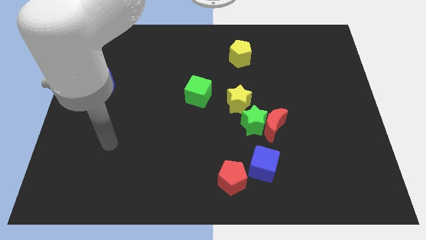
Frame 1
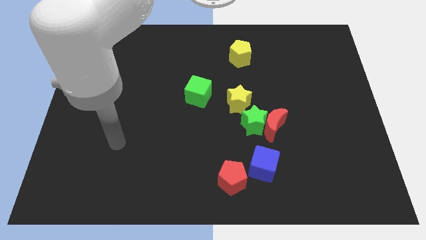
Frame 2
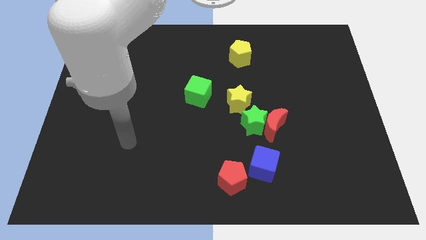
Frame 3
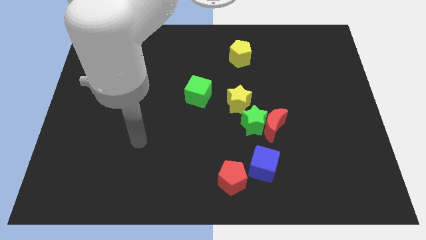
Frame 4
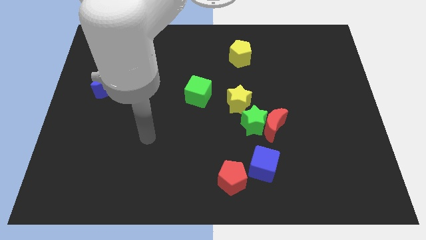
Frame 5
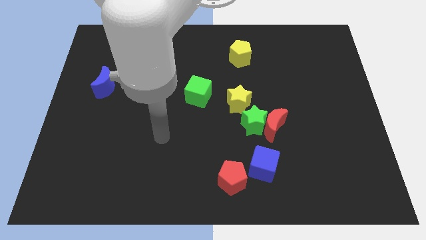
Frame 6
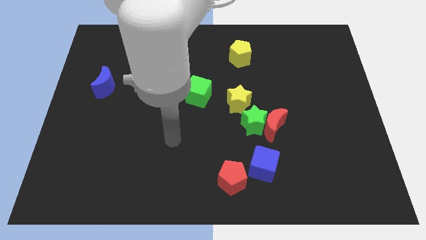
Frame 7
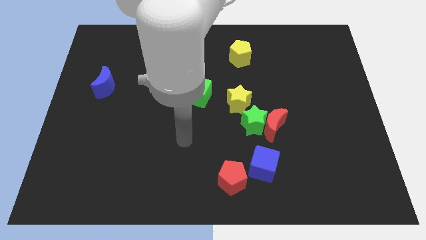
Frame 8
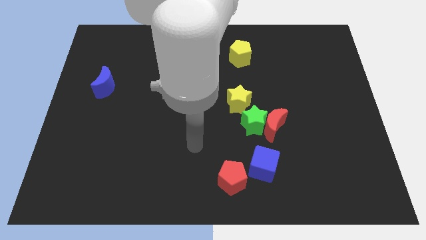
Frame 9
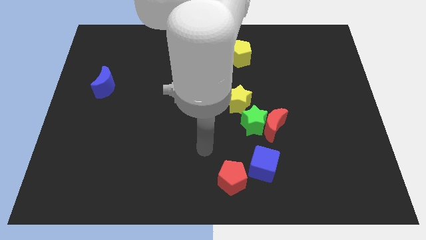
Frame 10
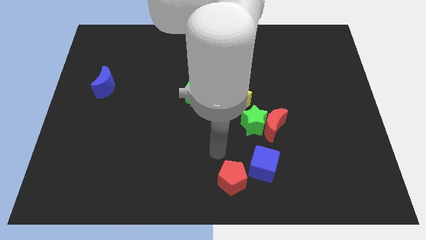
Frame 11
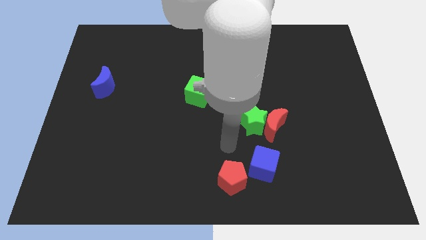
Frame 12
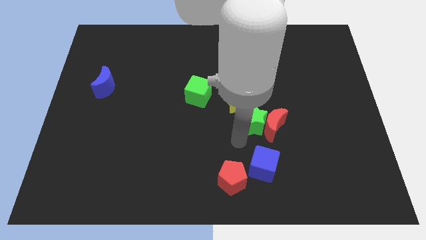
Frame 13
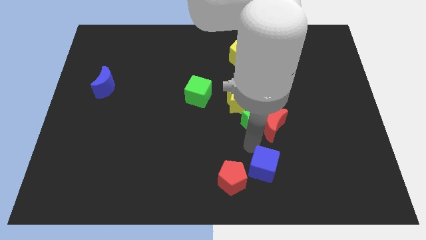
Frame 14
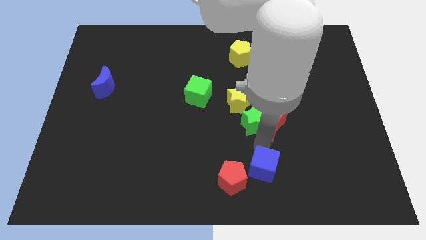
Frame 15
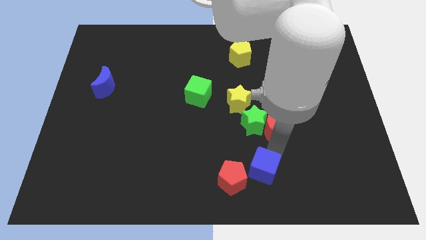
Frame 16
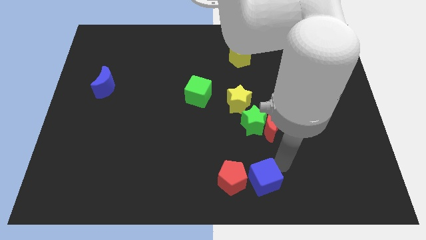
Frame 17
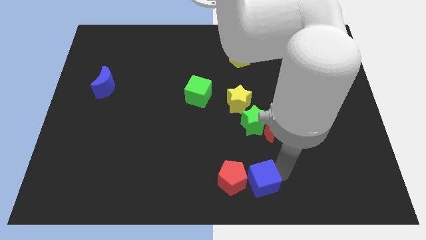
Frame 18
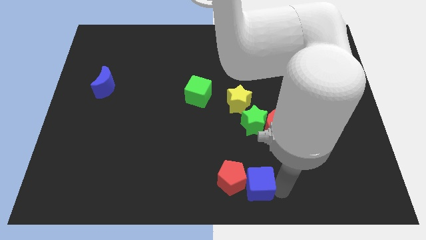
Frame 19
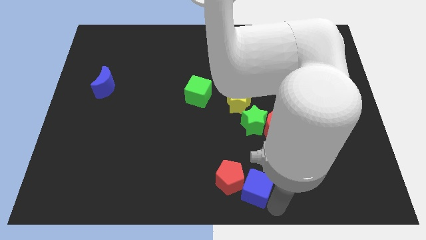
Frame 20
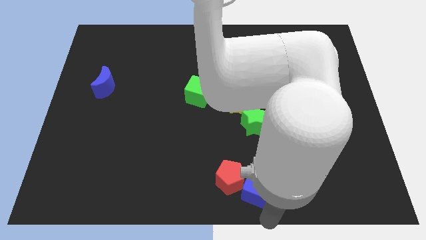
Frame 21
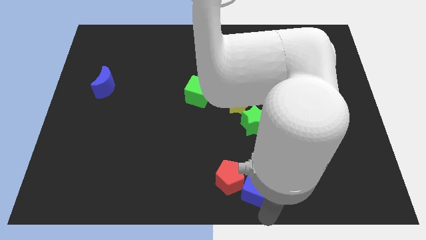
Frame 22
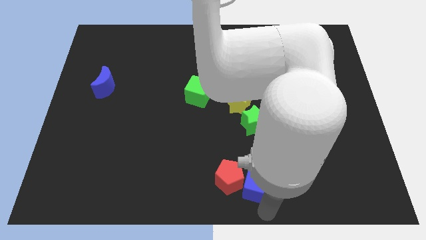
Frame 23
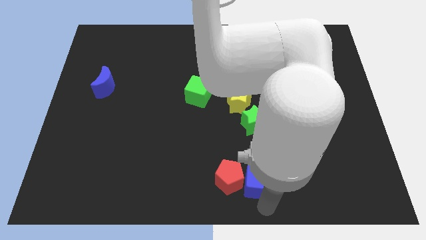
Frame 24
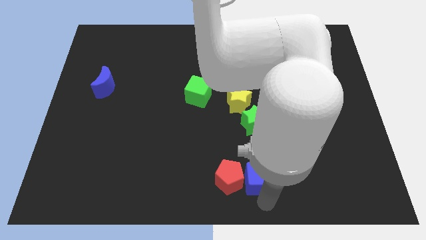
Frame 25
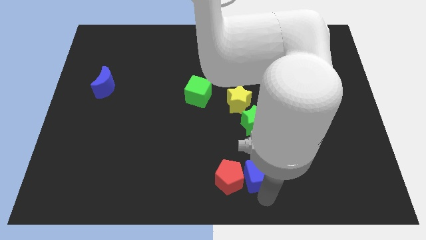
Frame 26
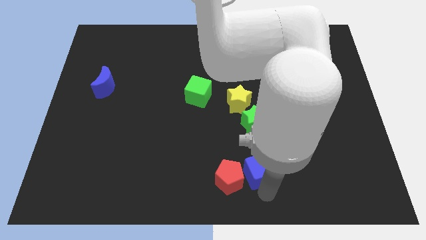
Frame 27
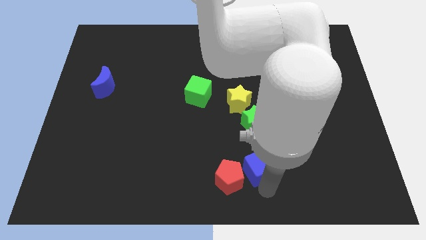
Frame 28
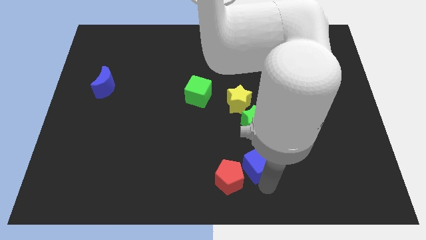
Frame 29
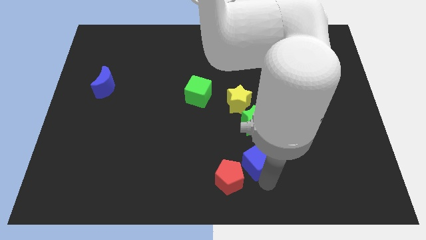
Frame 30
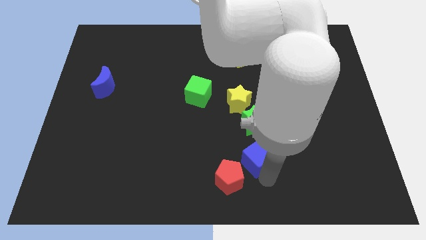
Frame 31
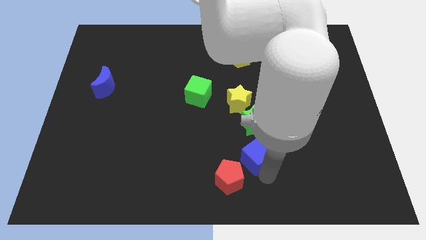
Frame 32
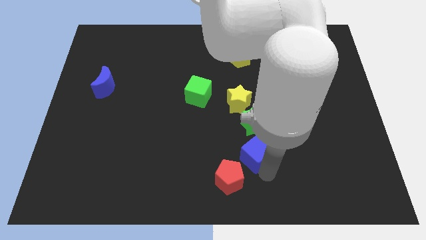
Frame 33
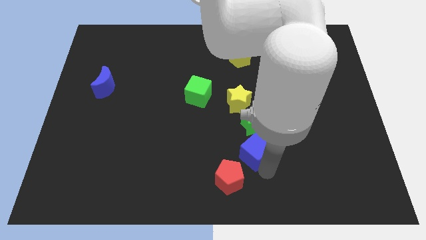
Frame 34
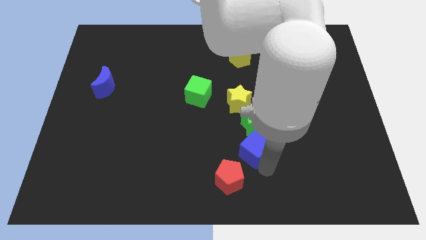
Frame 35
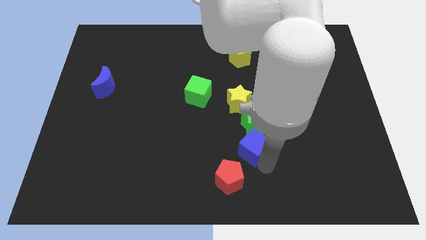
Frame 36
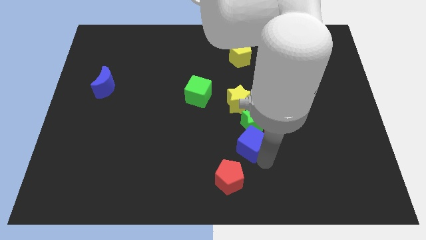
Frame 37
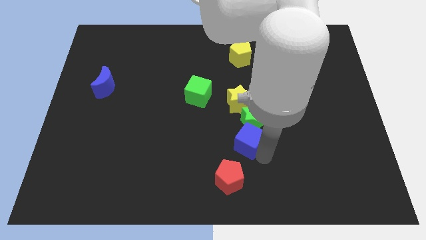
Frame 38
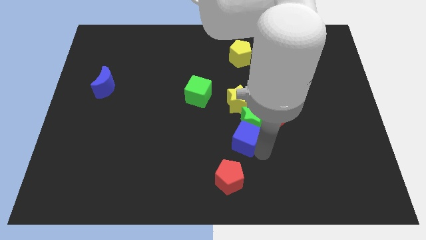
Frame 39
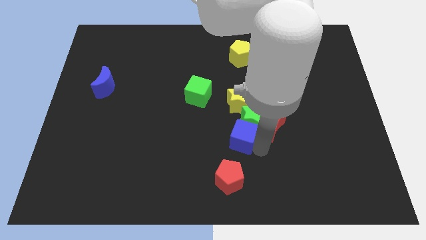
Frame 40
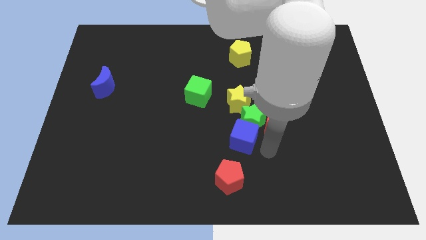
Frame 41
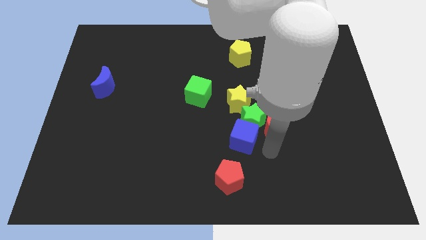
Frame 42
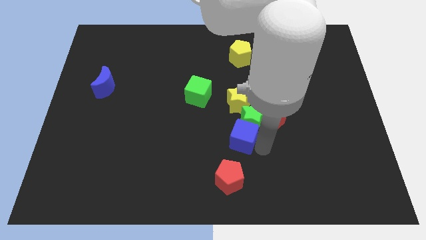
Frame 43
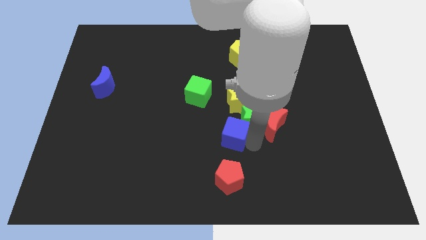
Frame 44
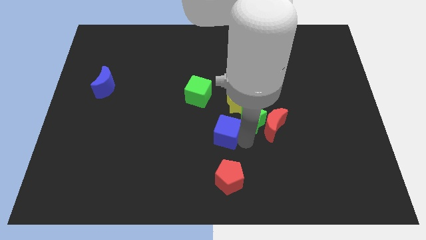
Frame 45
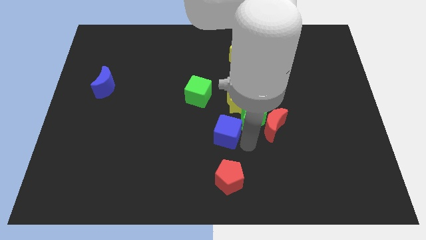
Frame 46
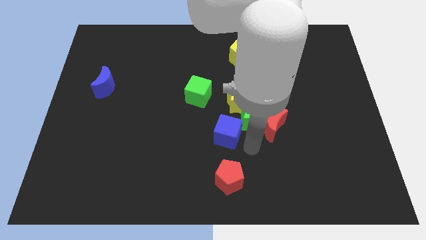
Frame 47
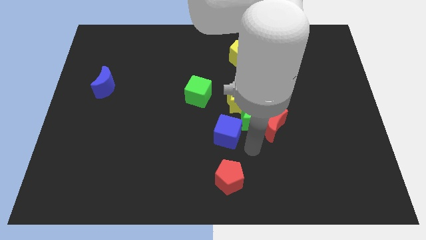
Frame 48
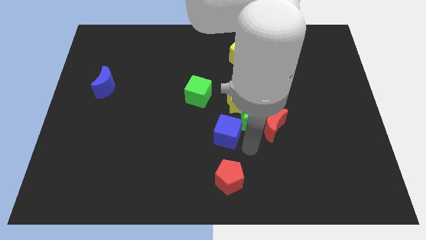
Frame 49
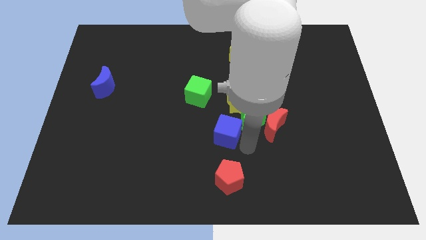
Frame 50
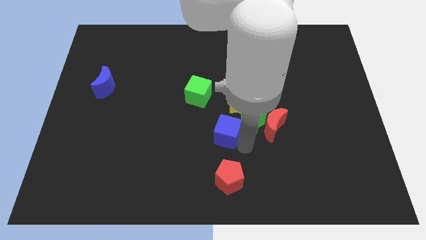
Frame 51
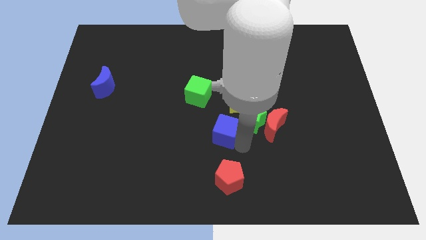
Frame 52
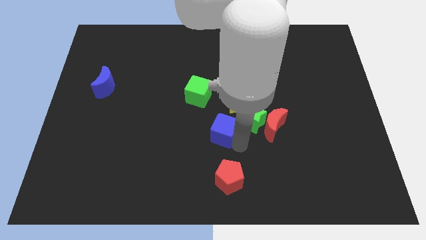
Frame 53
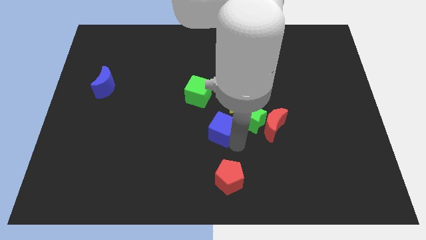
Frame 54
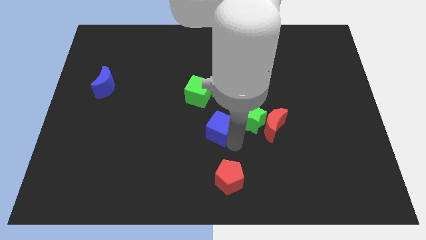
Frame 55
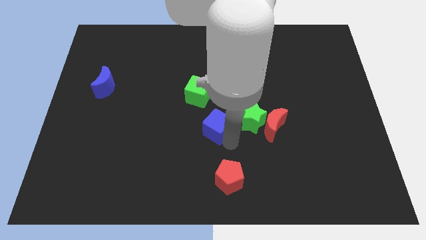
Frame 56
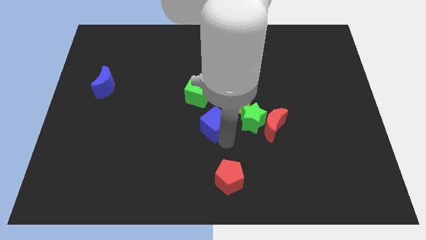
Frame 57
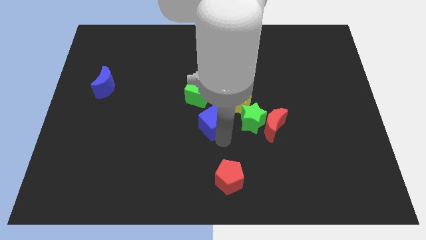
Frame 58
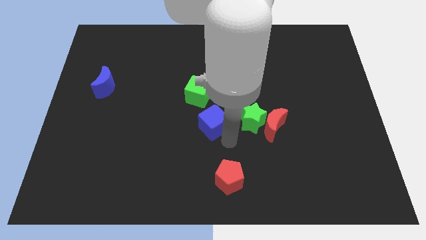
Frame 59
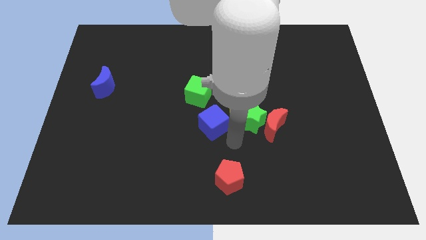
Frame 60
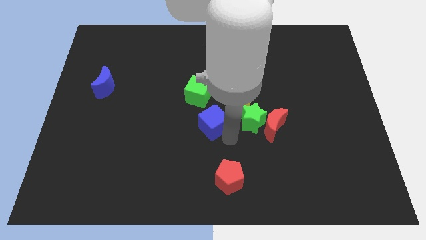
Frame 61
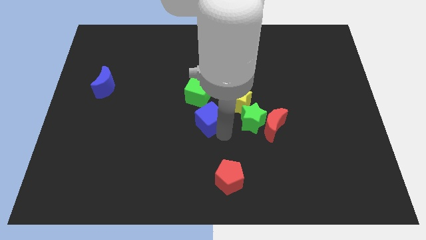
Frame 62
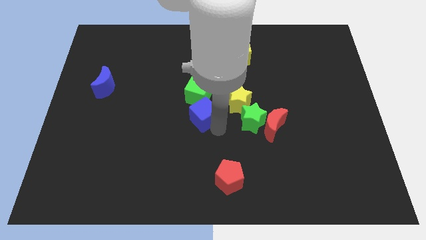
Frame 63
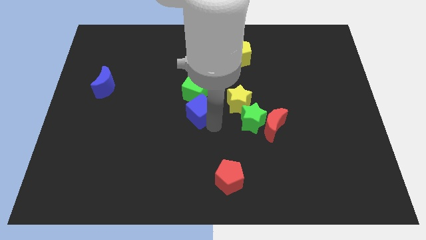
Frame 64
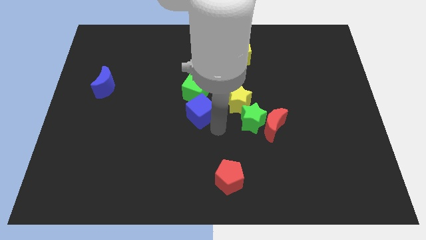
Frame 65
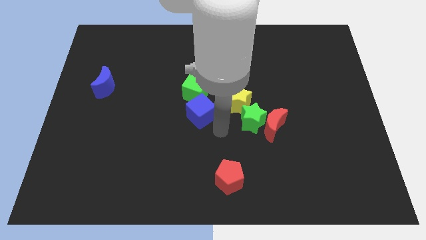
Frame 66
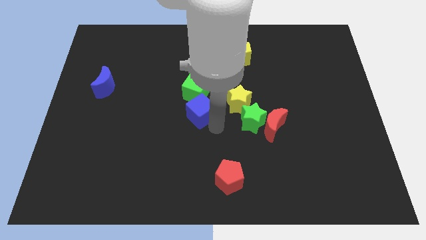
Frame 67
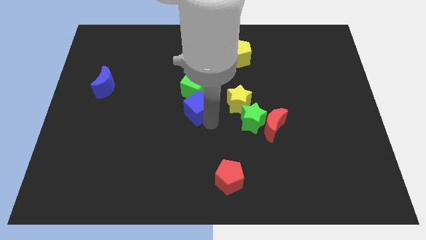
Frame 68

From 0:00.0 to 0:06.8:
push the blue cube diagonally upwards and to the left

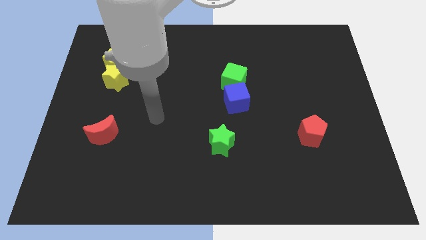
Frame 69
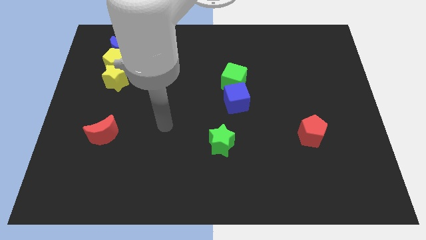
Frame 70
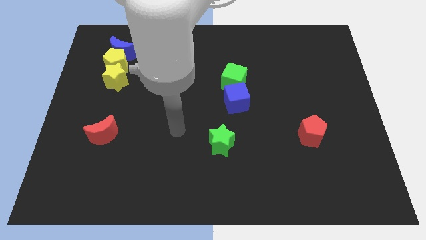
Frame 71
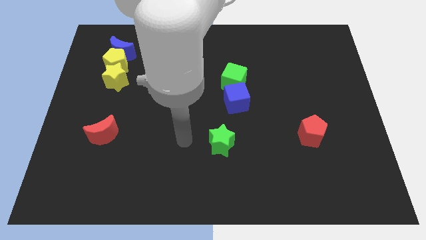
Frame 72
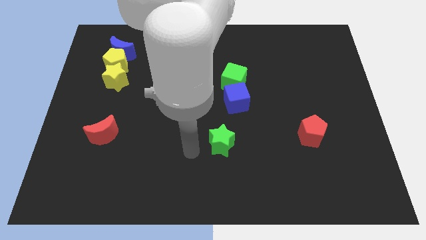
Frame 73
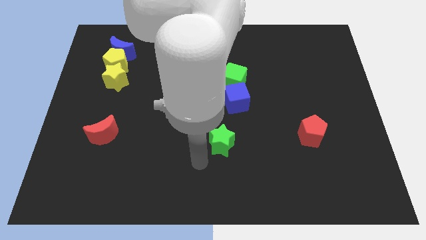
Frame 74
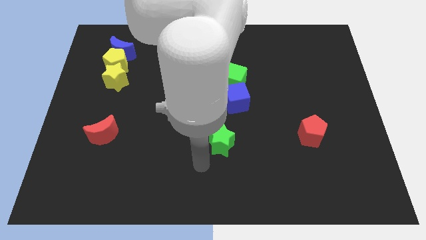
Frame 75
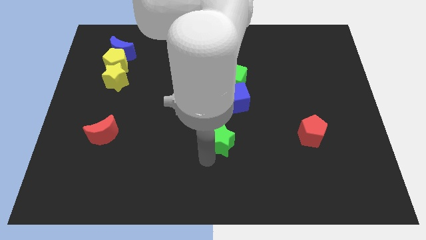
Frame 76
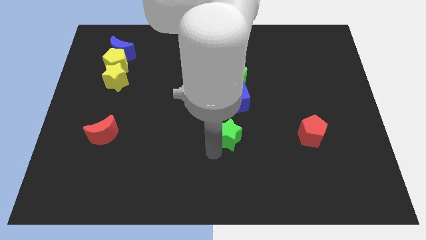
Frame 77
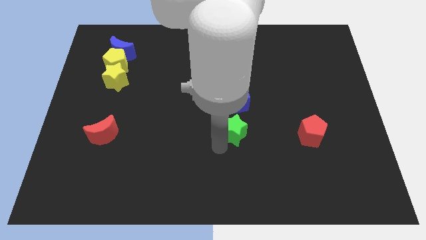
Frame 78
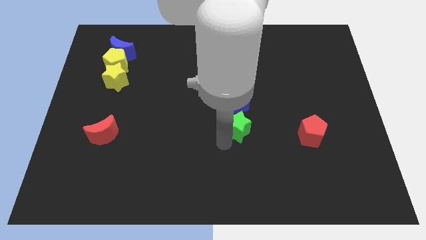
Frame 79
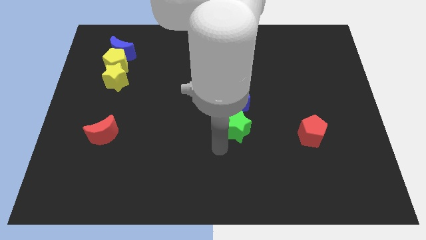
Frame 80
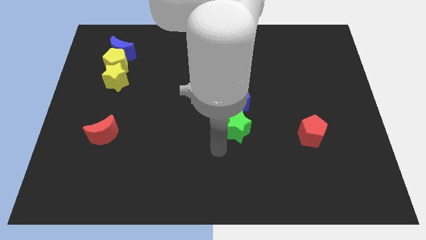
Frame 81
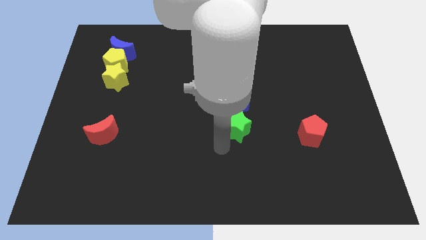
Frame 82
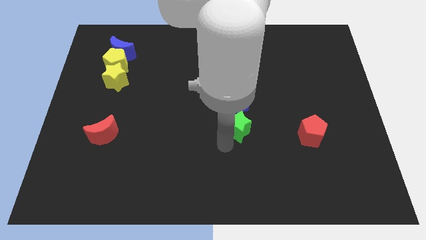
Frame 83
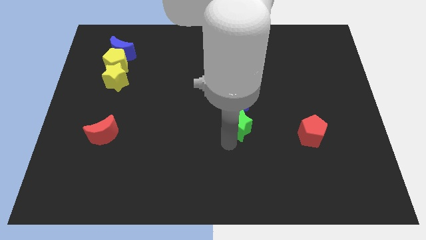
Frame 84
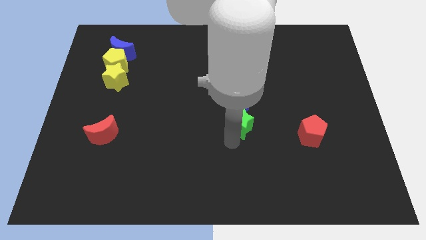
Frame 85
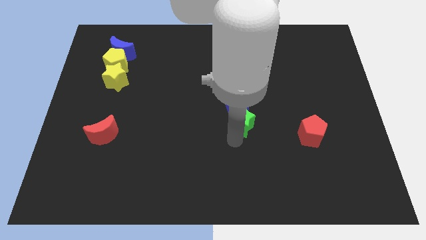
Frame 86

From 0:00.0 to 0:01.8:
slightly push the green star diagonally upwards and right
